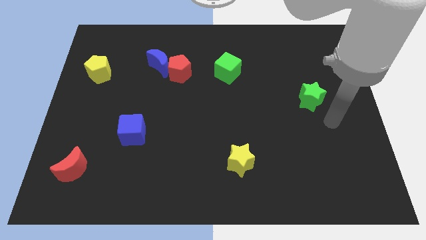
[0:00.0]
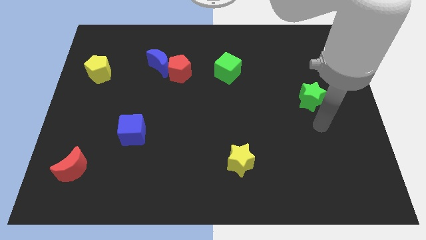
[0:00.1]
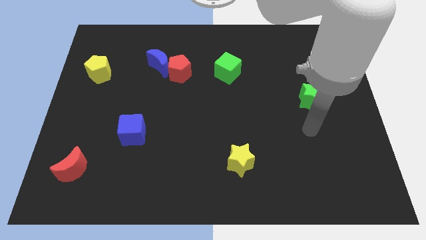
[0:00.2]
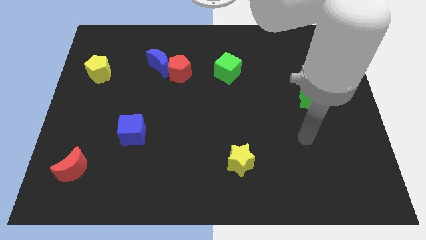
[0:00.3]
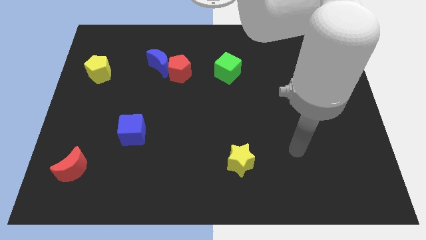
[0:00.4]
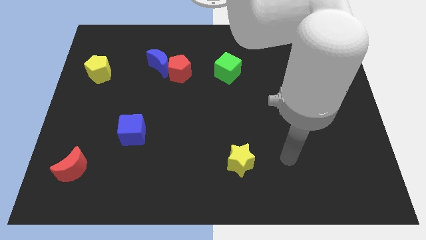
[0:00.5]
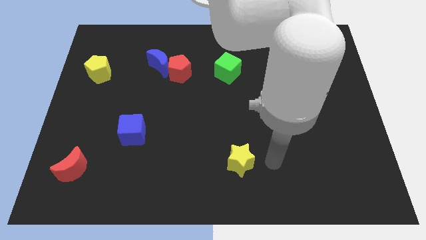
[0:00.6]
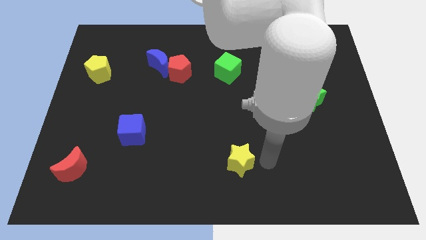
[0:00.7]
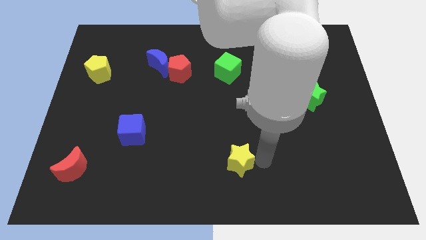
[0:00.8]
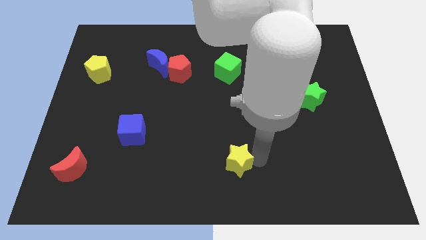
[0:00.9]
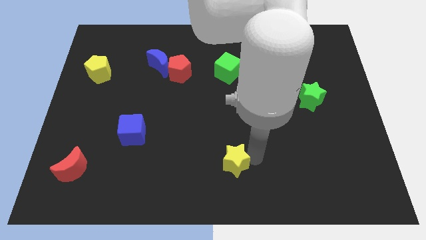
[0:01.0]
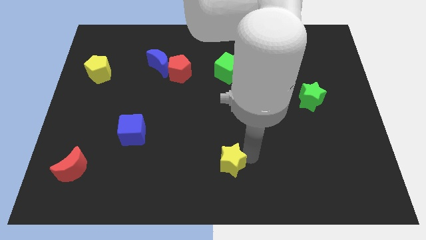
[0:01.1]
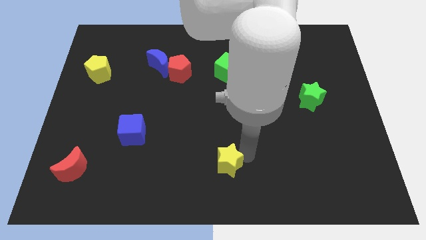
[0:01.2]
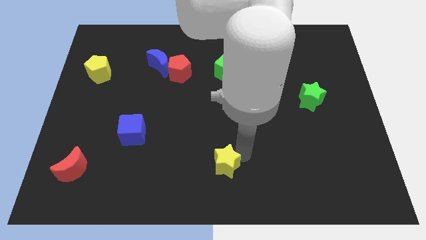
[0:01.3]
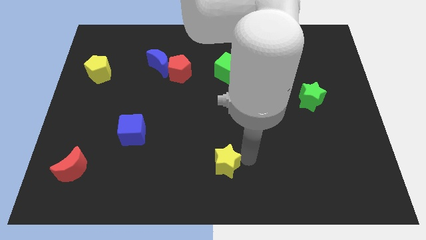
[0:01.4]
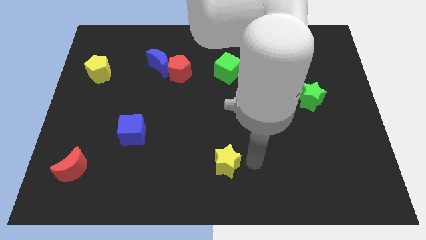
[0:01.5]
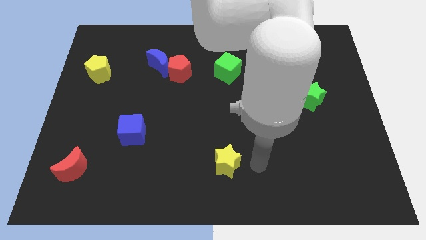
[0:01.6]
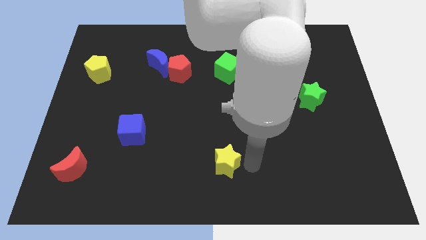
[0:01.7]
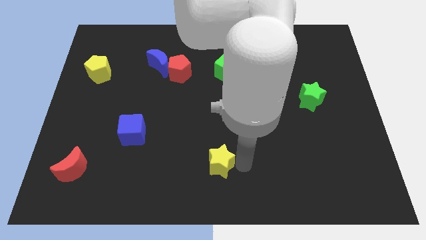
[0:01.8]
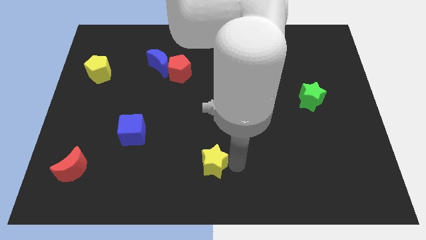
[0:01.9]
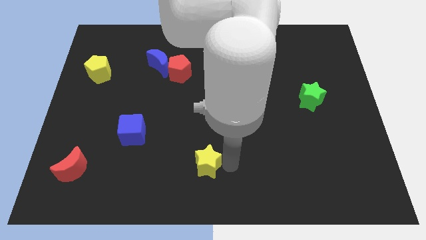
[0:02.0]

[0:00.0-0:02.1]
move the yellow star left a little bit

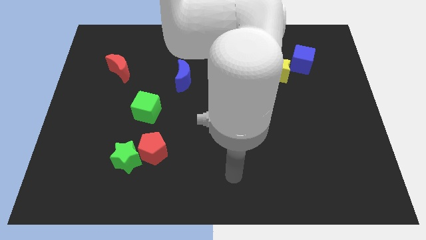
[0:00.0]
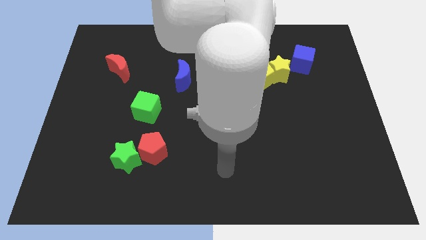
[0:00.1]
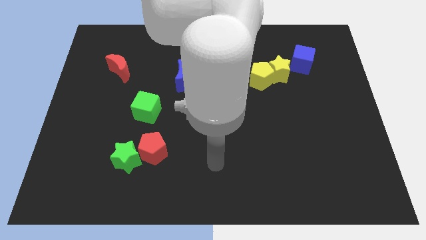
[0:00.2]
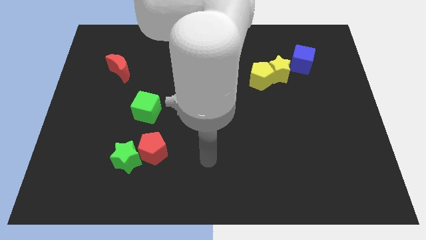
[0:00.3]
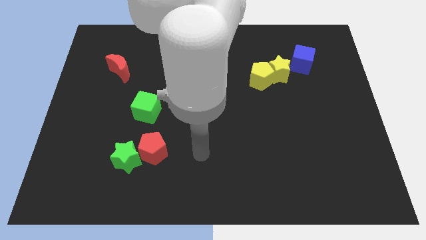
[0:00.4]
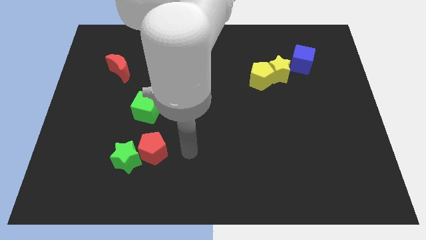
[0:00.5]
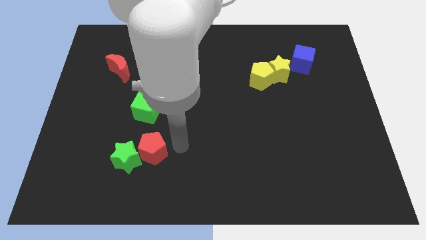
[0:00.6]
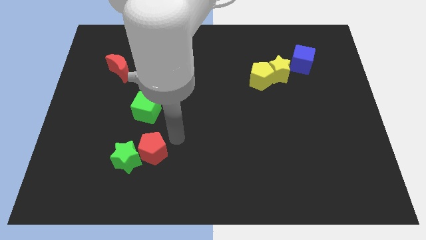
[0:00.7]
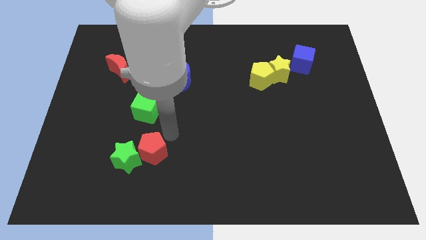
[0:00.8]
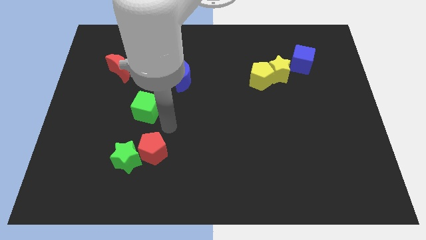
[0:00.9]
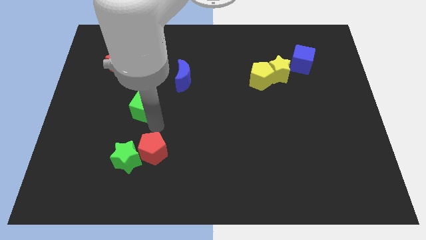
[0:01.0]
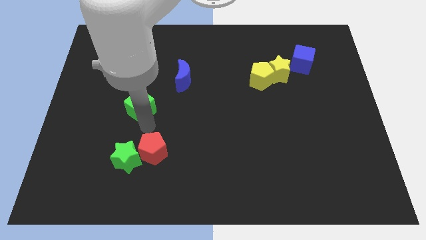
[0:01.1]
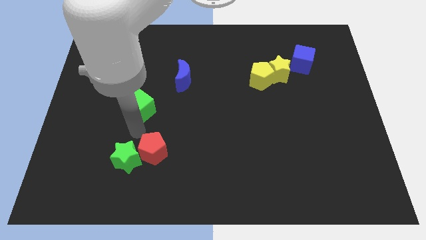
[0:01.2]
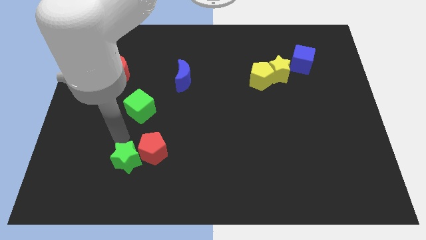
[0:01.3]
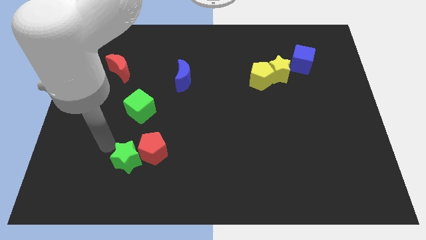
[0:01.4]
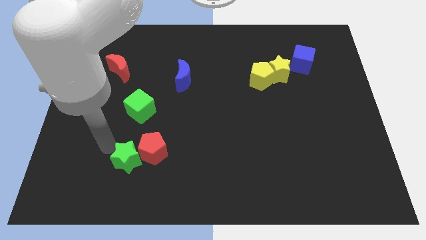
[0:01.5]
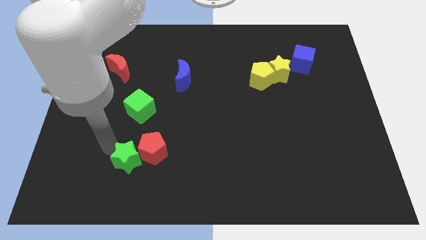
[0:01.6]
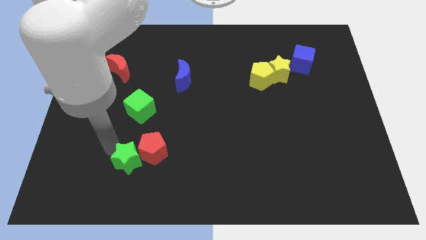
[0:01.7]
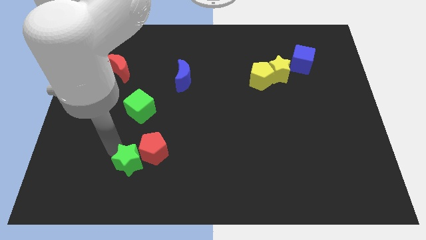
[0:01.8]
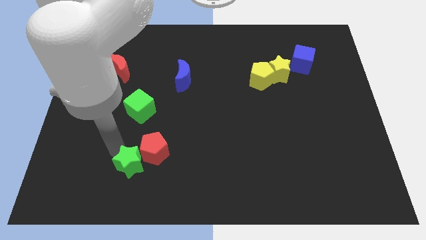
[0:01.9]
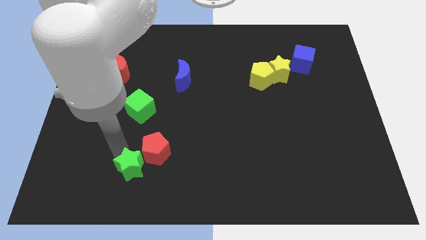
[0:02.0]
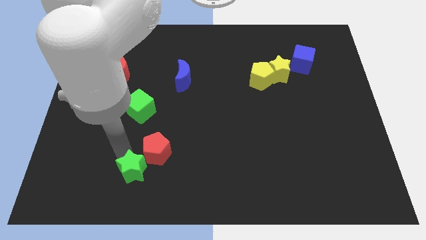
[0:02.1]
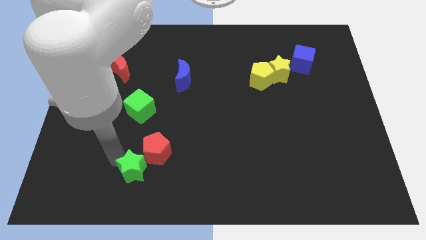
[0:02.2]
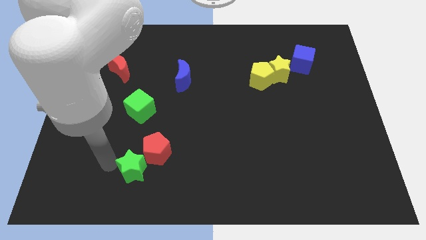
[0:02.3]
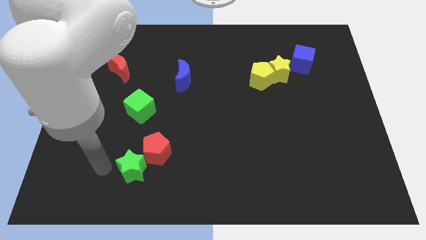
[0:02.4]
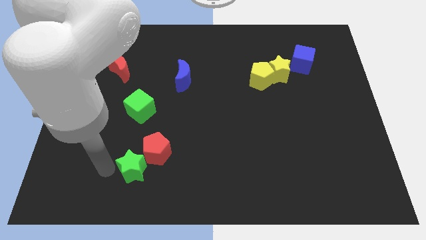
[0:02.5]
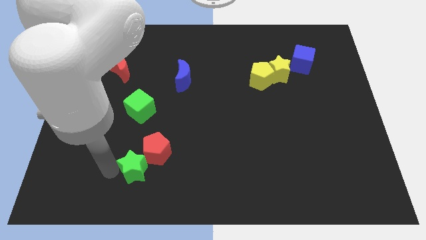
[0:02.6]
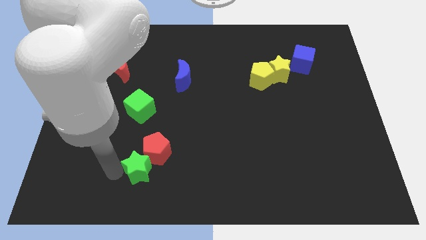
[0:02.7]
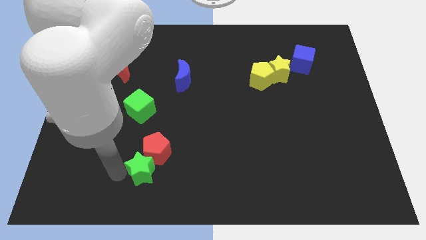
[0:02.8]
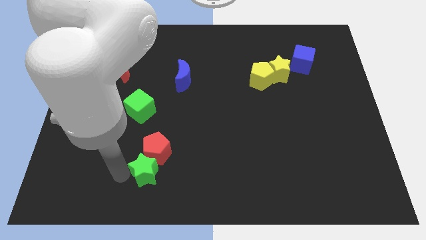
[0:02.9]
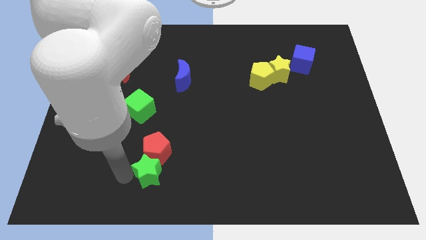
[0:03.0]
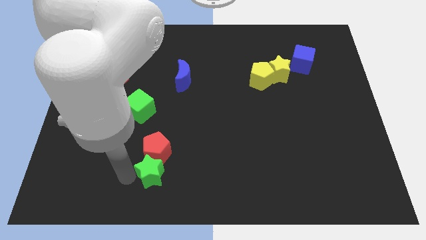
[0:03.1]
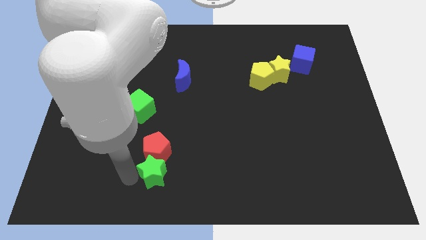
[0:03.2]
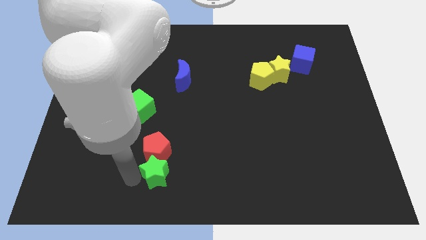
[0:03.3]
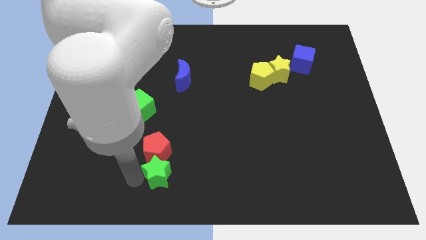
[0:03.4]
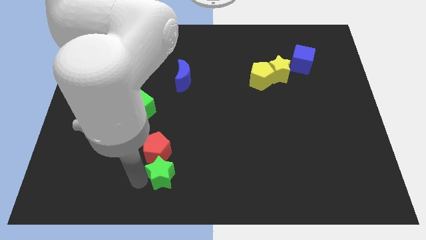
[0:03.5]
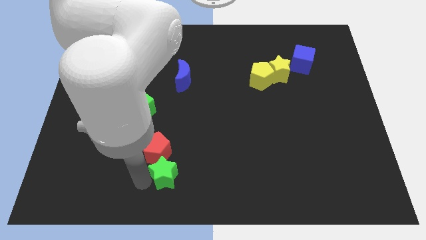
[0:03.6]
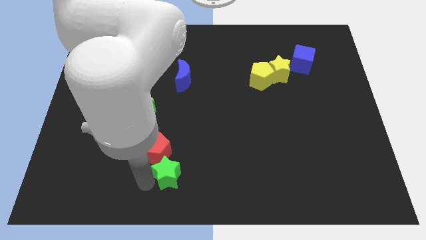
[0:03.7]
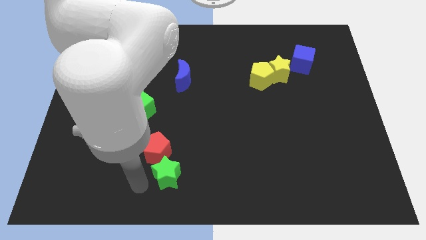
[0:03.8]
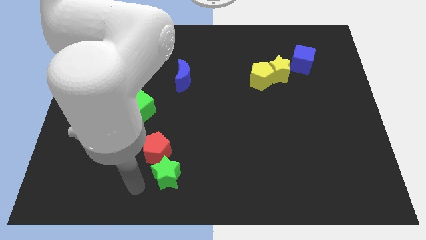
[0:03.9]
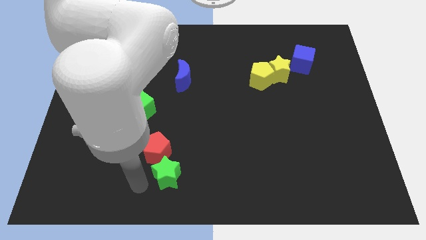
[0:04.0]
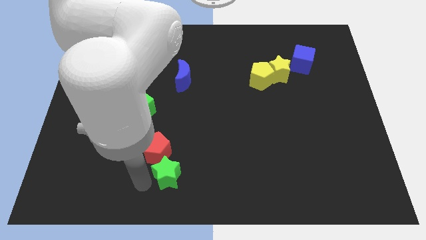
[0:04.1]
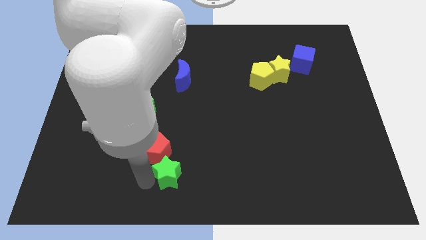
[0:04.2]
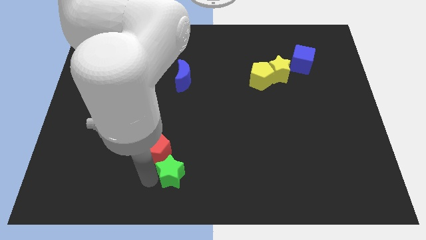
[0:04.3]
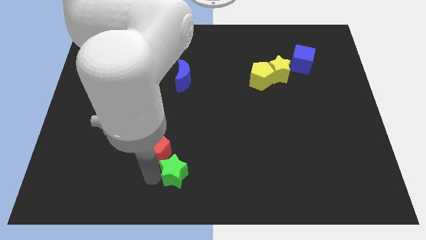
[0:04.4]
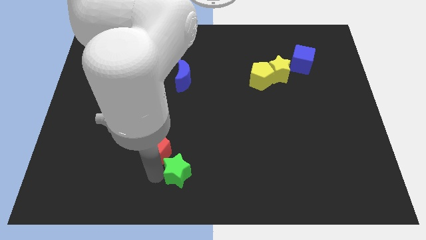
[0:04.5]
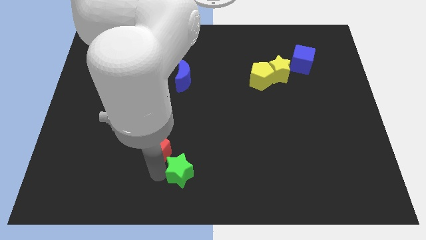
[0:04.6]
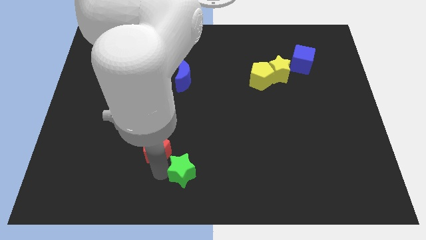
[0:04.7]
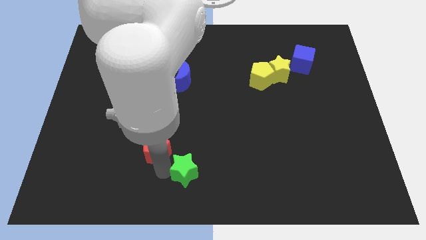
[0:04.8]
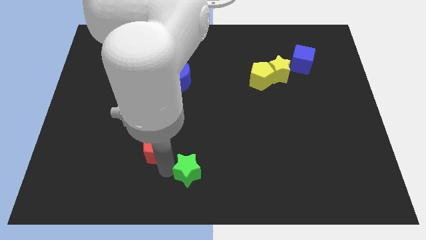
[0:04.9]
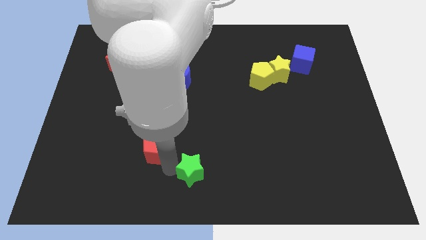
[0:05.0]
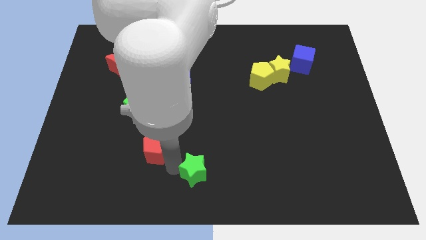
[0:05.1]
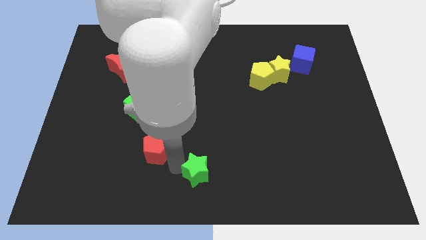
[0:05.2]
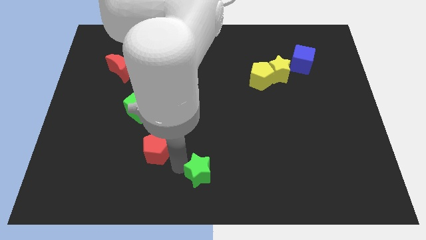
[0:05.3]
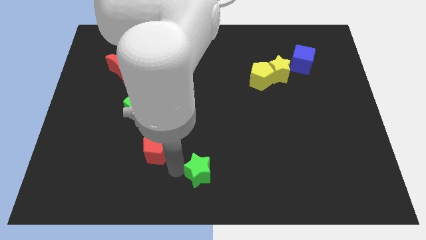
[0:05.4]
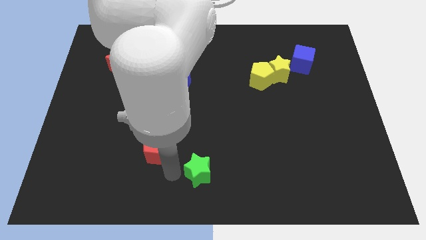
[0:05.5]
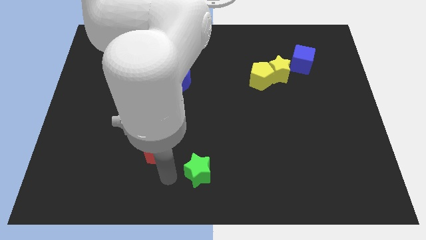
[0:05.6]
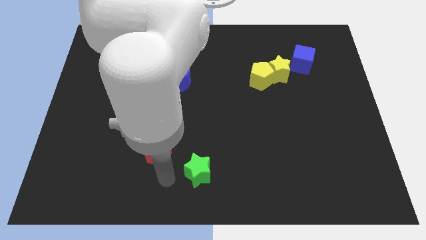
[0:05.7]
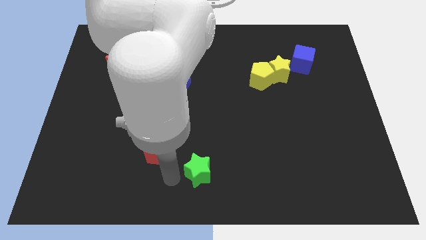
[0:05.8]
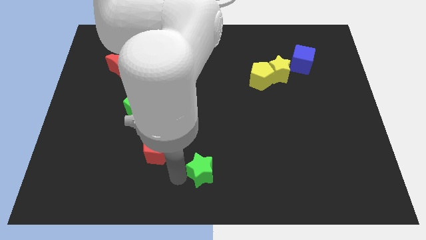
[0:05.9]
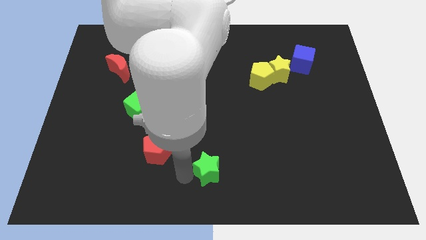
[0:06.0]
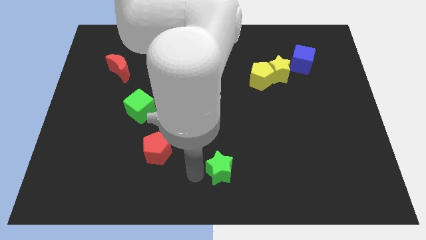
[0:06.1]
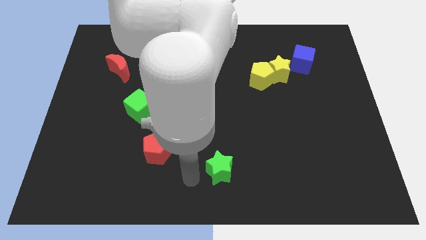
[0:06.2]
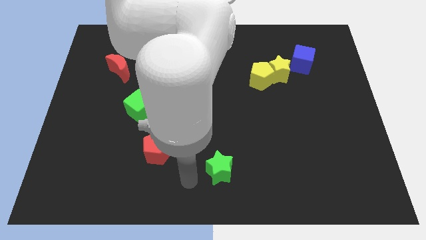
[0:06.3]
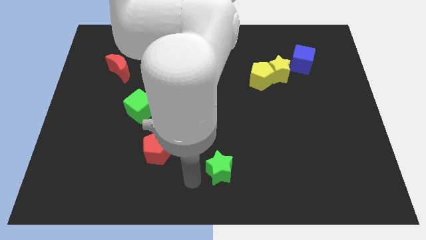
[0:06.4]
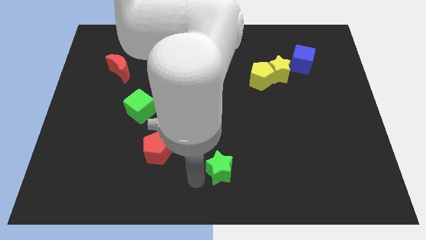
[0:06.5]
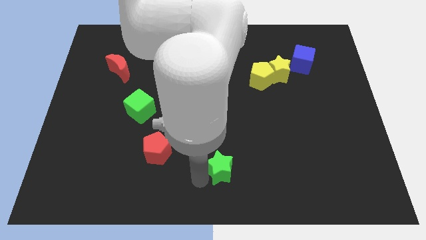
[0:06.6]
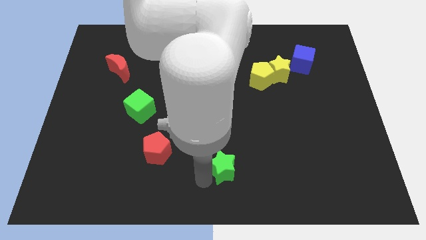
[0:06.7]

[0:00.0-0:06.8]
move the green star right
